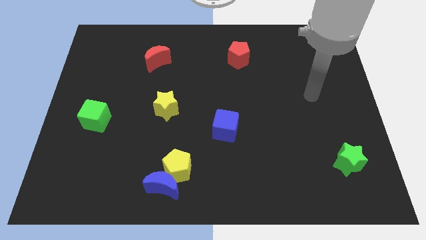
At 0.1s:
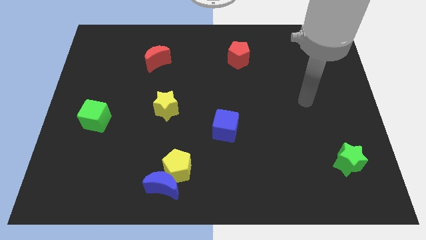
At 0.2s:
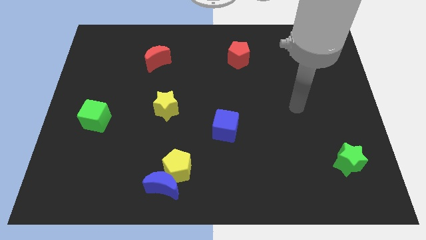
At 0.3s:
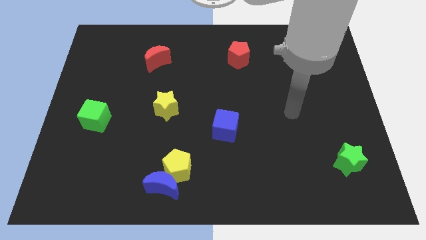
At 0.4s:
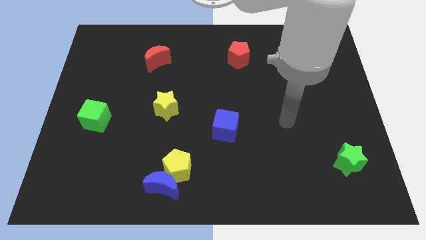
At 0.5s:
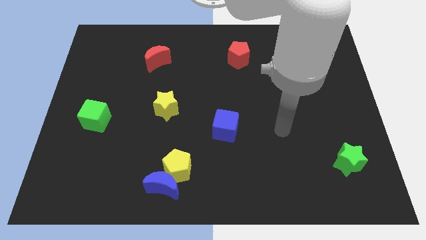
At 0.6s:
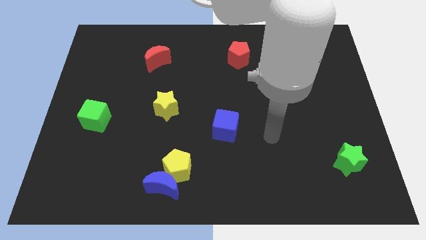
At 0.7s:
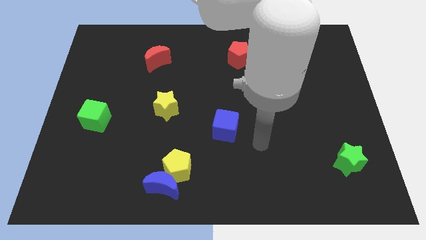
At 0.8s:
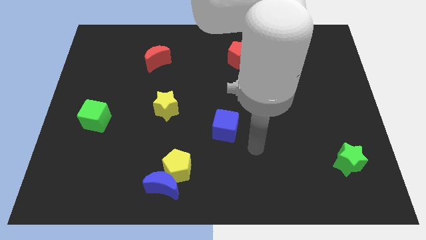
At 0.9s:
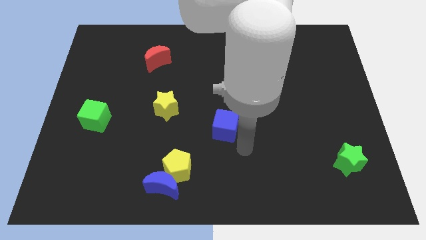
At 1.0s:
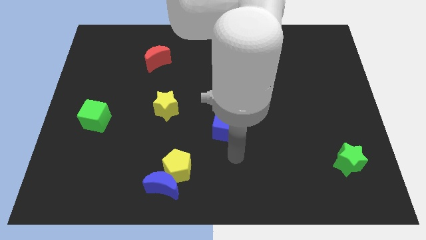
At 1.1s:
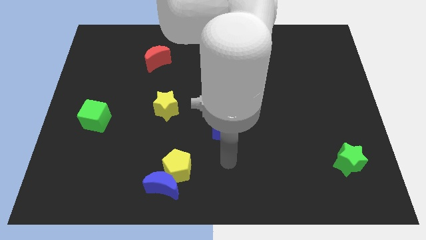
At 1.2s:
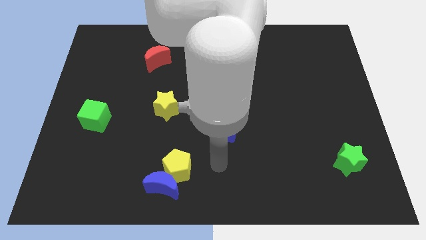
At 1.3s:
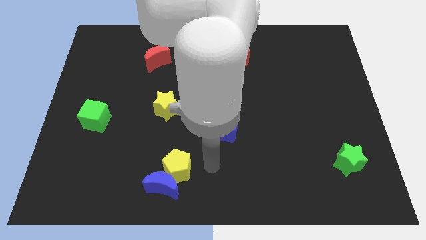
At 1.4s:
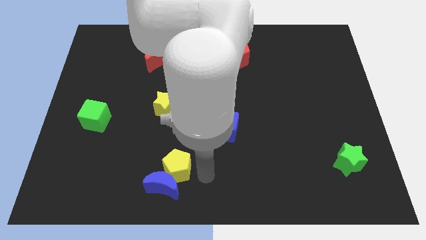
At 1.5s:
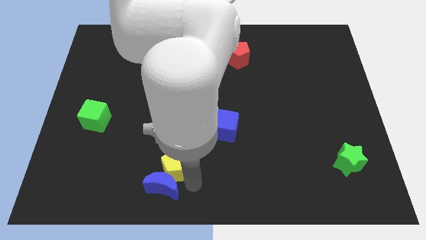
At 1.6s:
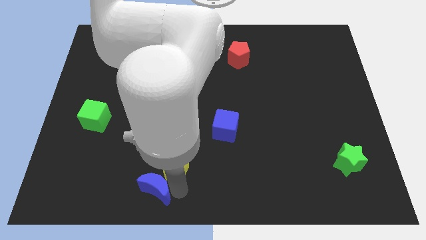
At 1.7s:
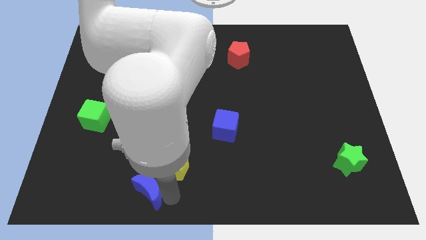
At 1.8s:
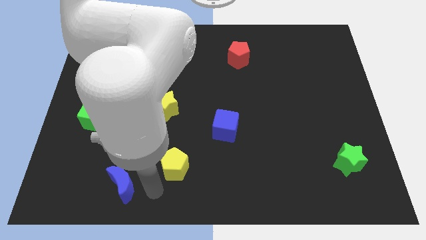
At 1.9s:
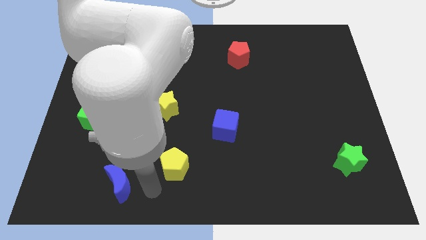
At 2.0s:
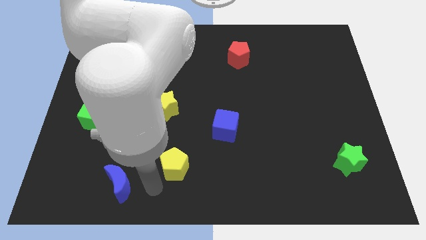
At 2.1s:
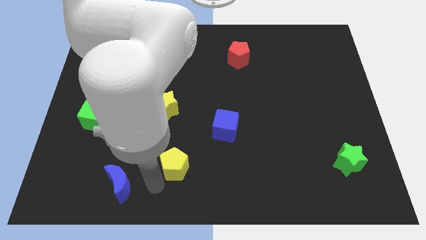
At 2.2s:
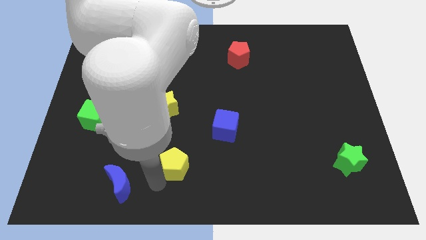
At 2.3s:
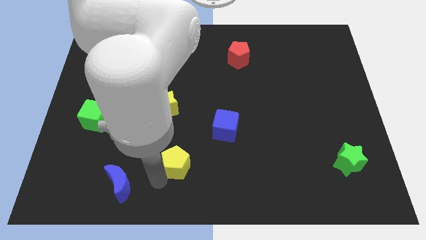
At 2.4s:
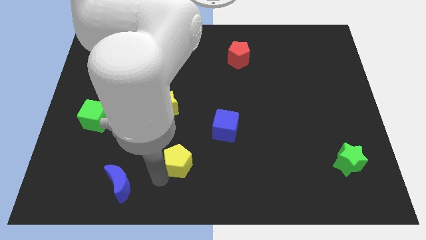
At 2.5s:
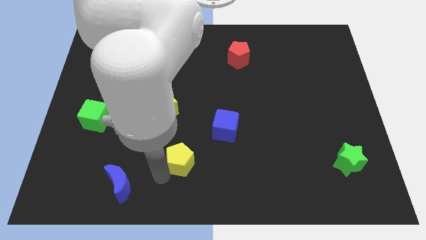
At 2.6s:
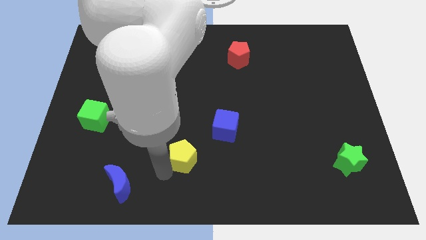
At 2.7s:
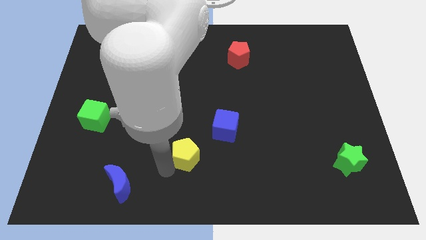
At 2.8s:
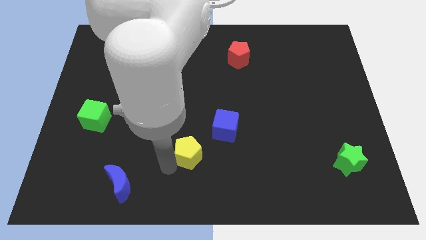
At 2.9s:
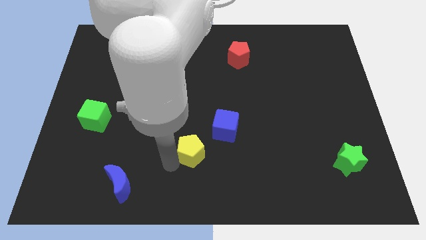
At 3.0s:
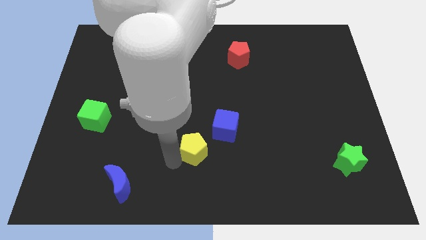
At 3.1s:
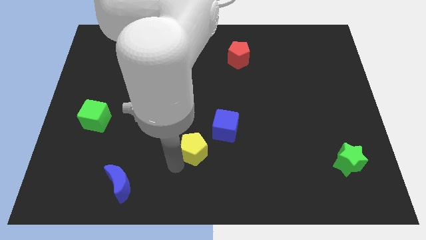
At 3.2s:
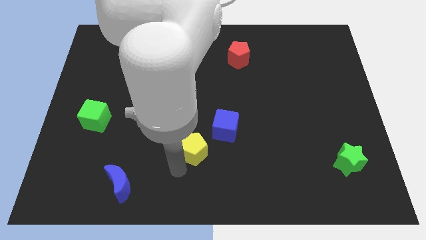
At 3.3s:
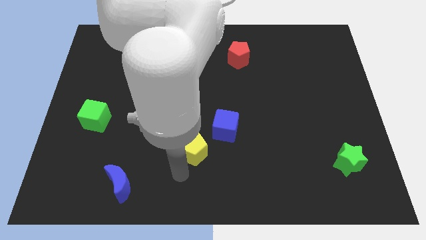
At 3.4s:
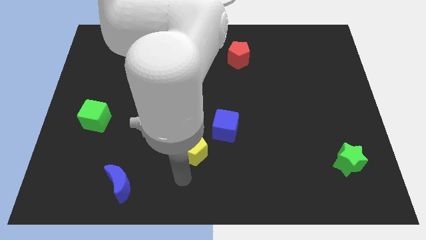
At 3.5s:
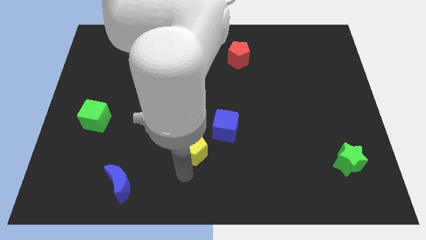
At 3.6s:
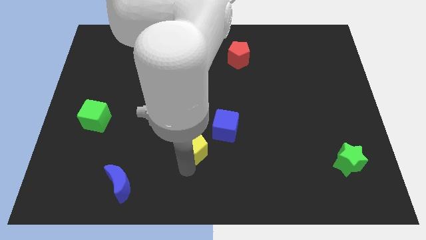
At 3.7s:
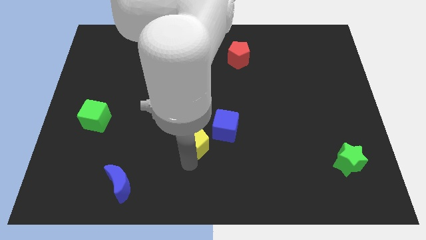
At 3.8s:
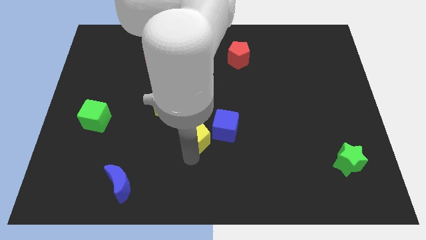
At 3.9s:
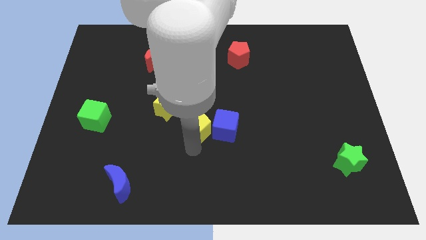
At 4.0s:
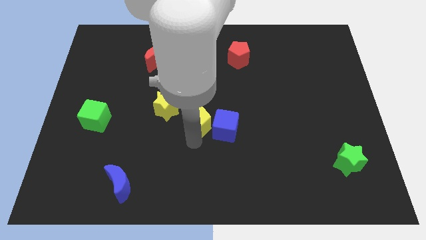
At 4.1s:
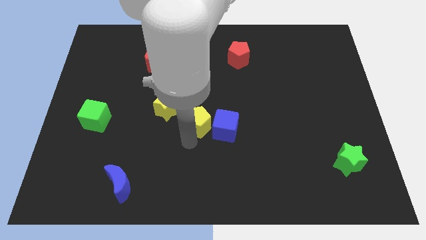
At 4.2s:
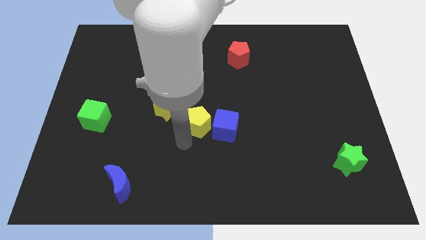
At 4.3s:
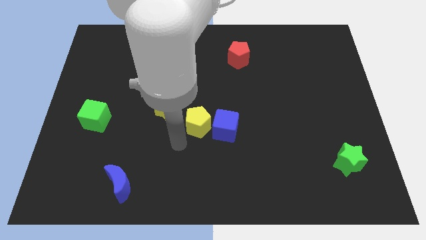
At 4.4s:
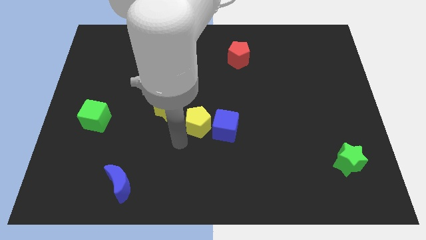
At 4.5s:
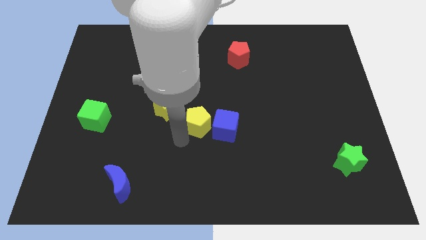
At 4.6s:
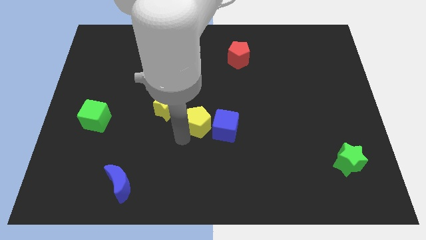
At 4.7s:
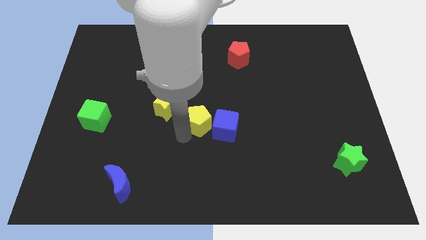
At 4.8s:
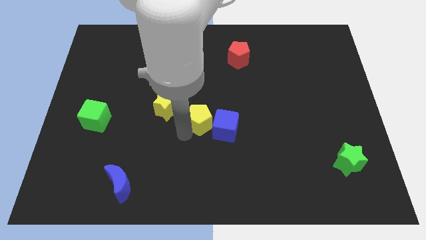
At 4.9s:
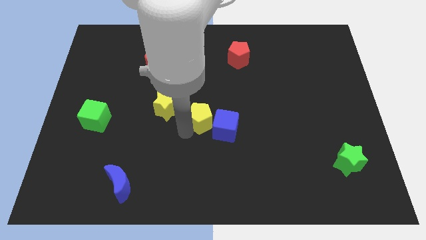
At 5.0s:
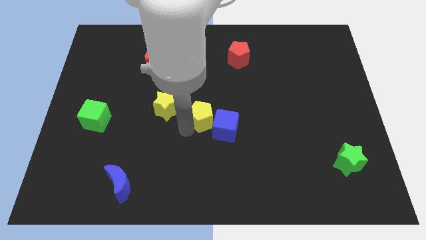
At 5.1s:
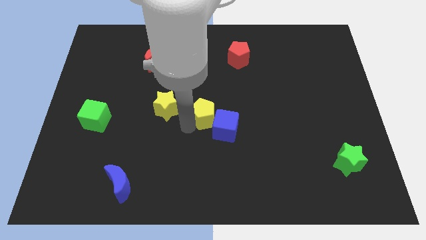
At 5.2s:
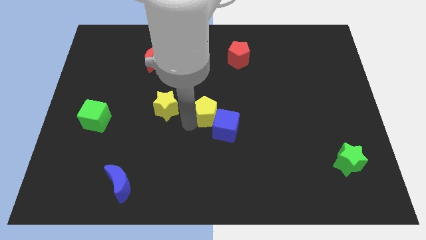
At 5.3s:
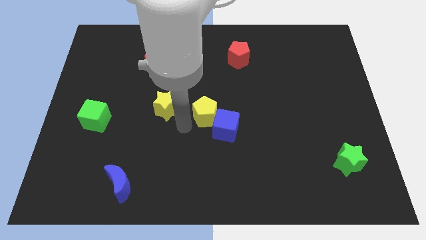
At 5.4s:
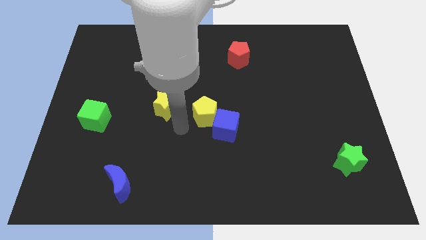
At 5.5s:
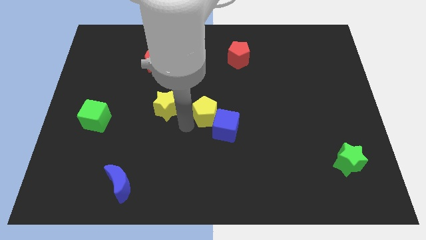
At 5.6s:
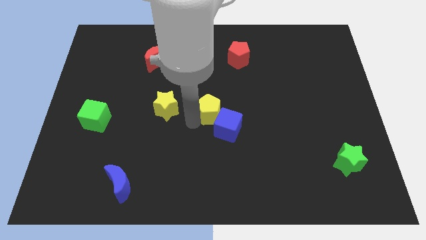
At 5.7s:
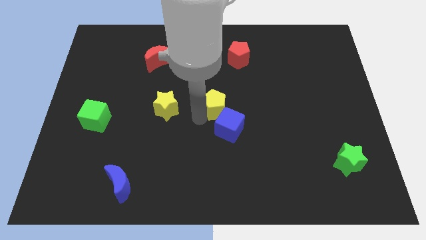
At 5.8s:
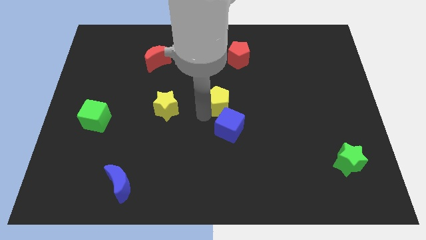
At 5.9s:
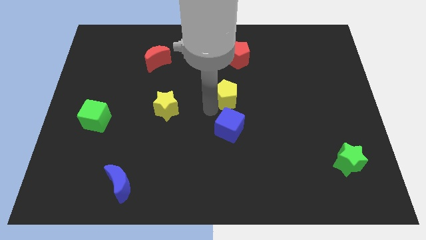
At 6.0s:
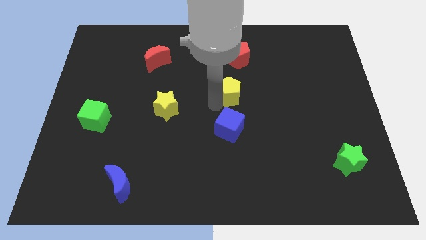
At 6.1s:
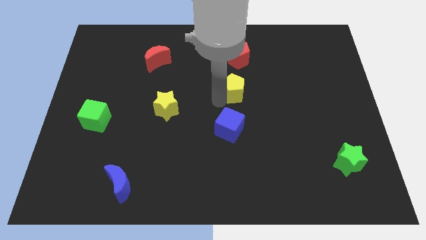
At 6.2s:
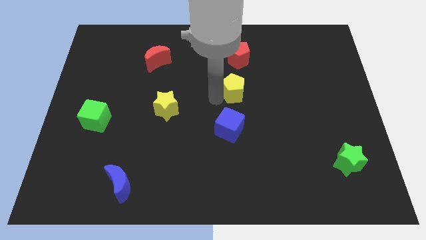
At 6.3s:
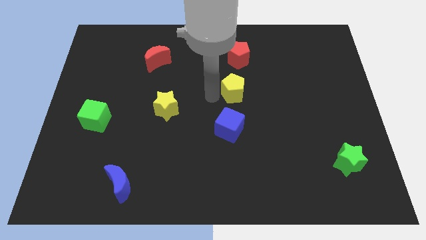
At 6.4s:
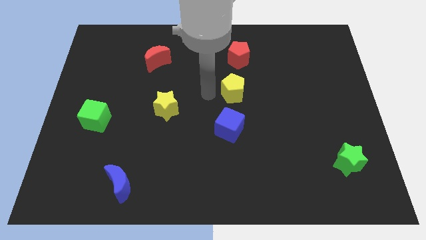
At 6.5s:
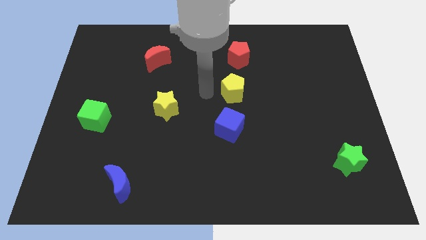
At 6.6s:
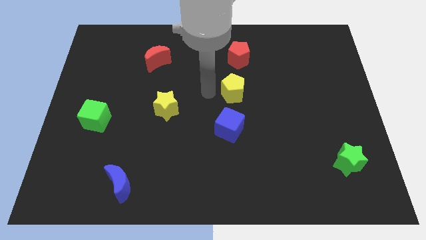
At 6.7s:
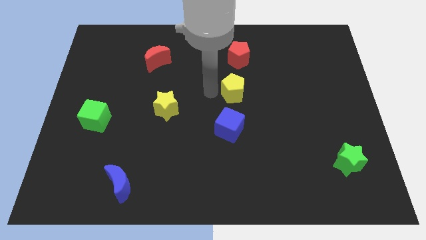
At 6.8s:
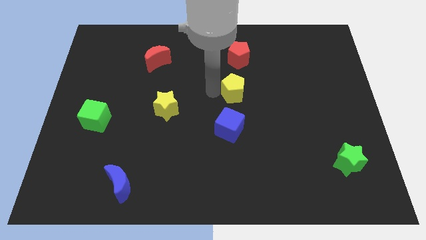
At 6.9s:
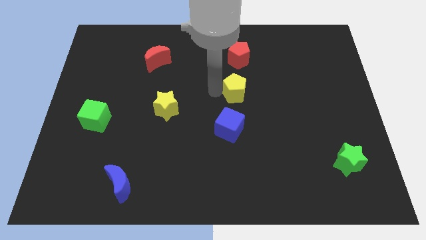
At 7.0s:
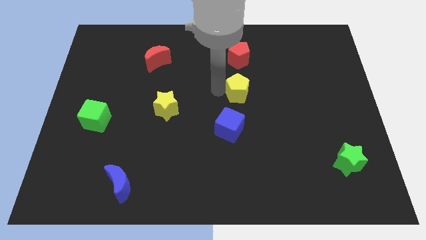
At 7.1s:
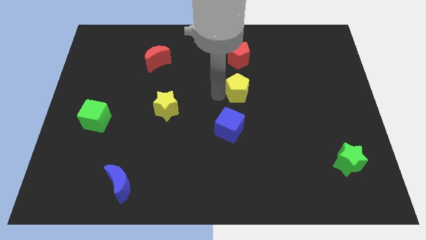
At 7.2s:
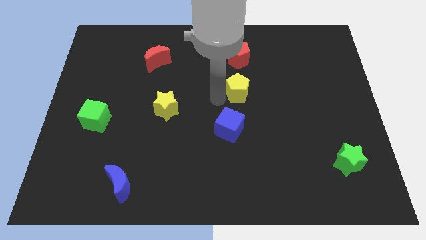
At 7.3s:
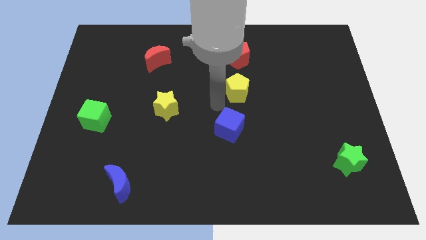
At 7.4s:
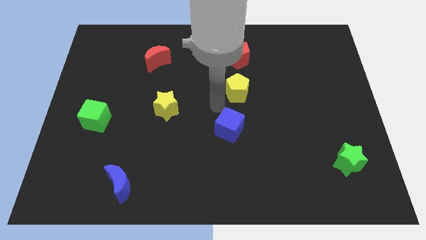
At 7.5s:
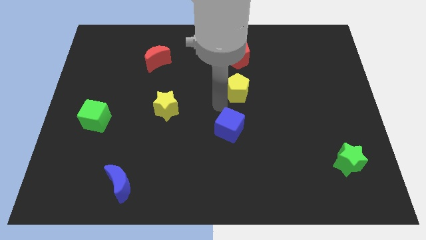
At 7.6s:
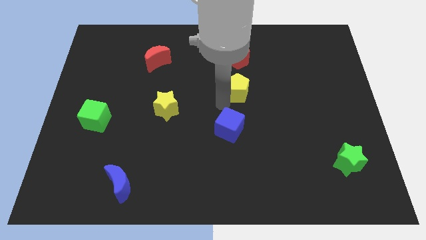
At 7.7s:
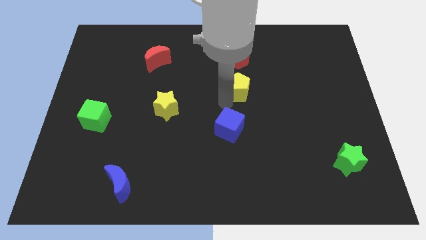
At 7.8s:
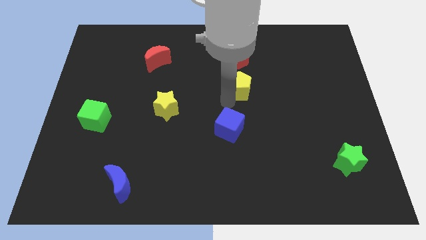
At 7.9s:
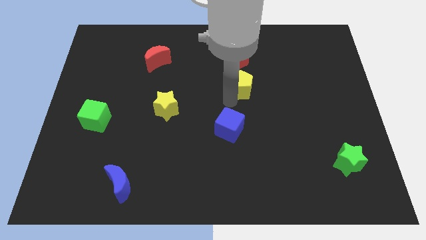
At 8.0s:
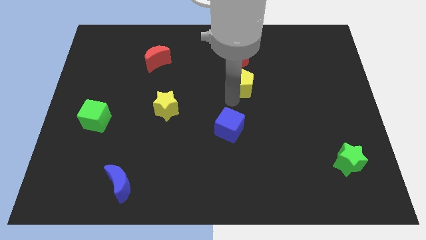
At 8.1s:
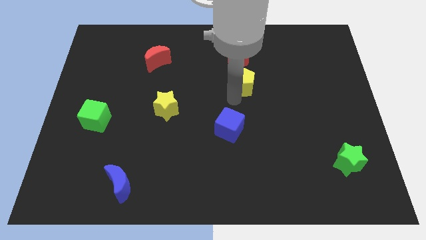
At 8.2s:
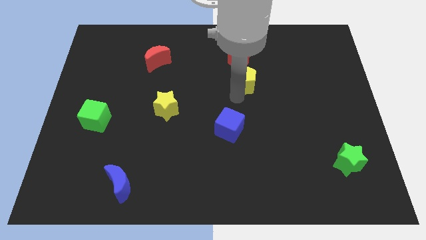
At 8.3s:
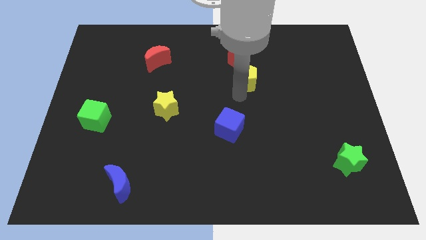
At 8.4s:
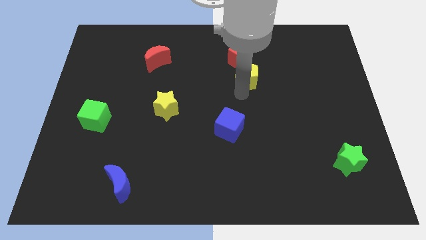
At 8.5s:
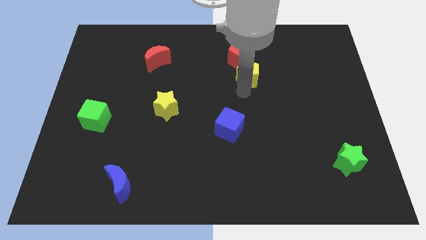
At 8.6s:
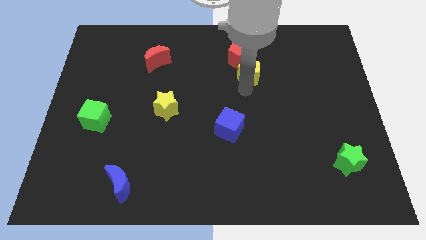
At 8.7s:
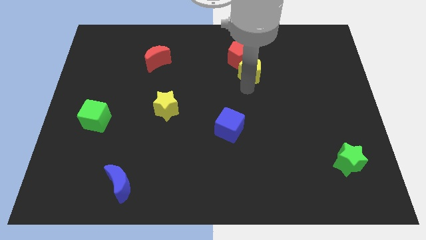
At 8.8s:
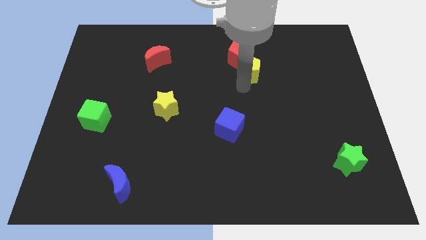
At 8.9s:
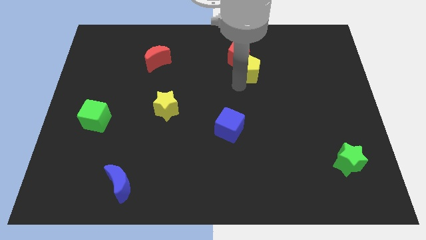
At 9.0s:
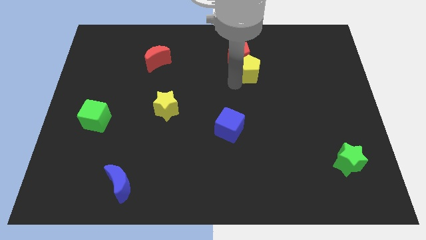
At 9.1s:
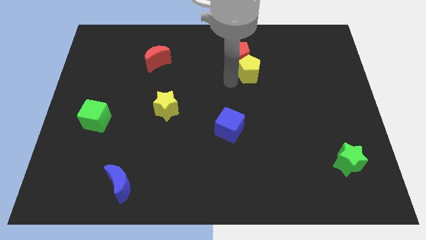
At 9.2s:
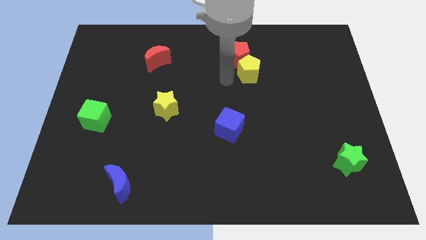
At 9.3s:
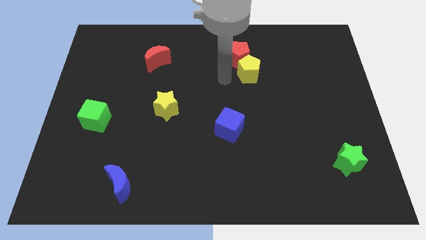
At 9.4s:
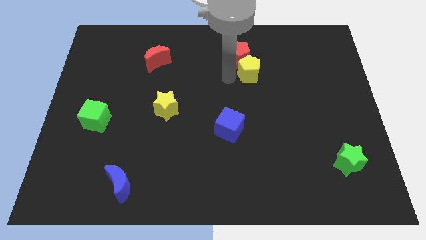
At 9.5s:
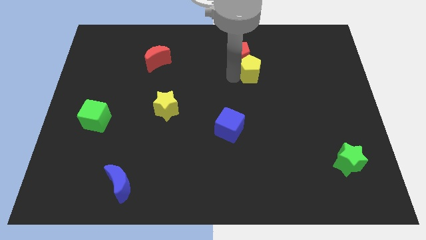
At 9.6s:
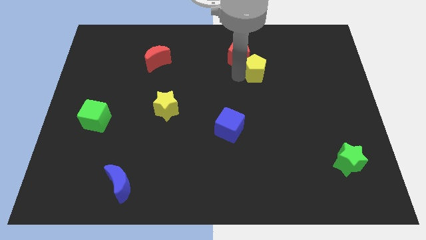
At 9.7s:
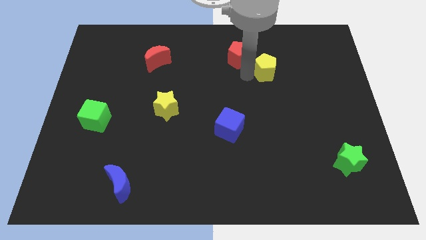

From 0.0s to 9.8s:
push the yellow pentagon right of the red pentagon
